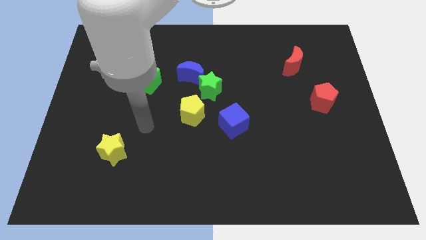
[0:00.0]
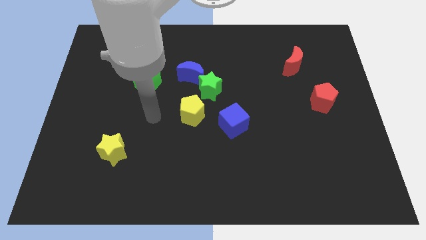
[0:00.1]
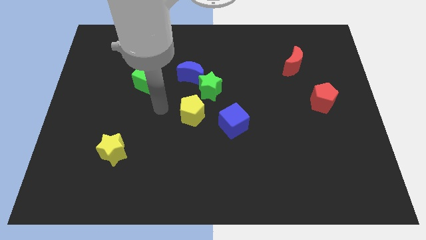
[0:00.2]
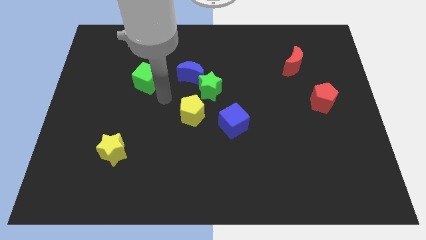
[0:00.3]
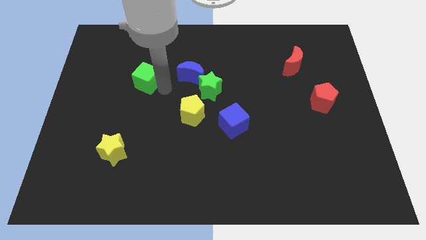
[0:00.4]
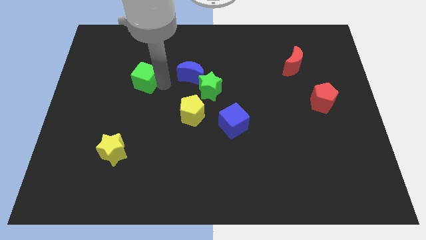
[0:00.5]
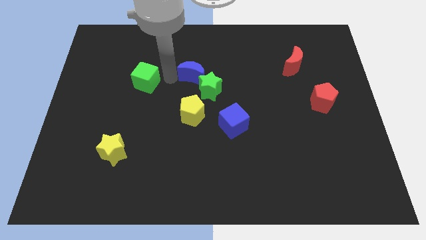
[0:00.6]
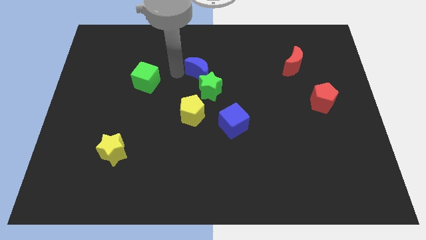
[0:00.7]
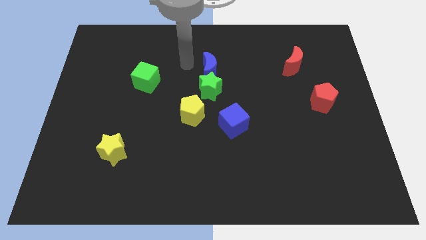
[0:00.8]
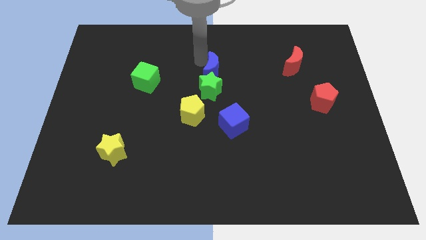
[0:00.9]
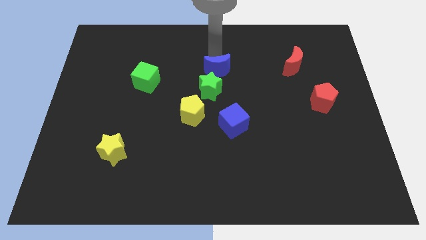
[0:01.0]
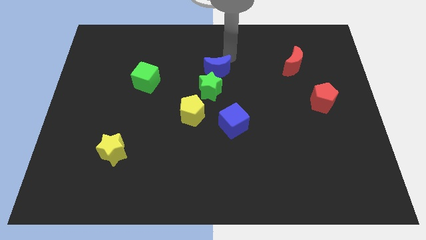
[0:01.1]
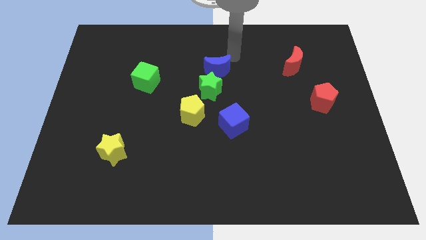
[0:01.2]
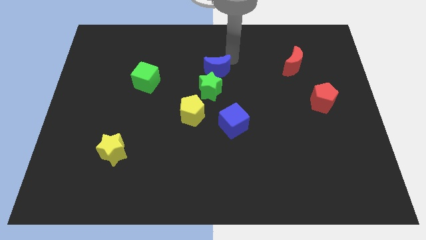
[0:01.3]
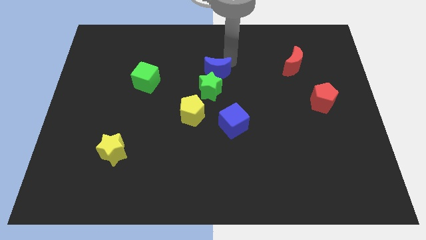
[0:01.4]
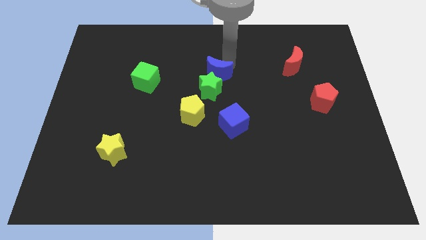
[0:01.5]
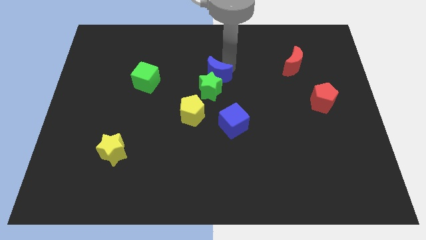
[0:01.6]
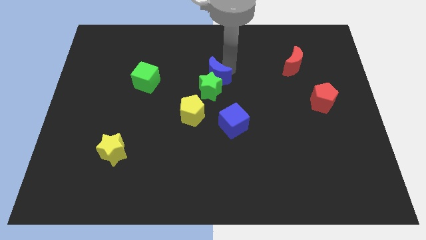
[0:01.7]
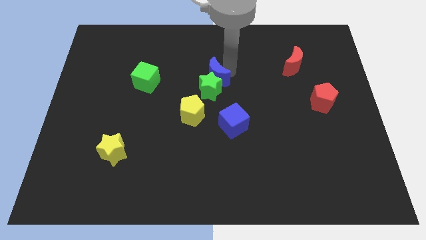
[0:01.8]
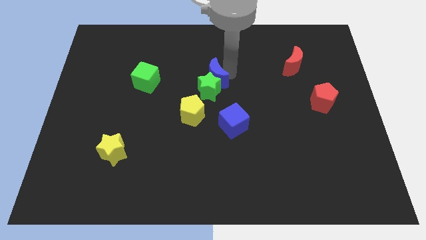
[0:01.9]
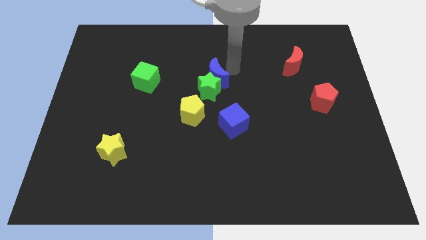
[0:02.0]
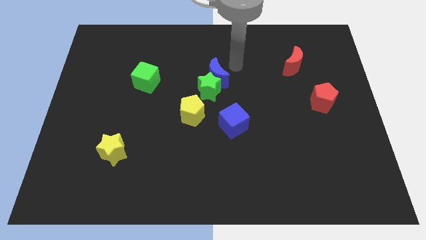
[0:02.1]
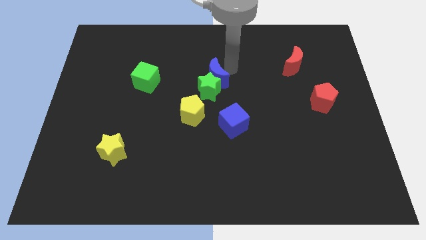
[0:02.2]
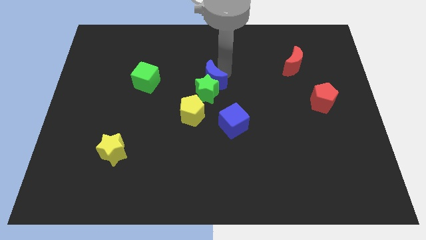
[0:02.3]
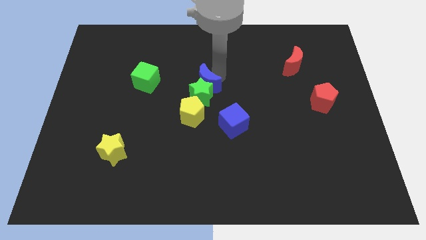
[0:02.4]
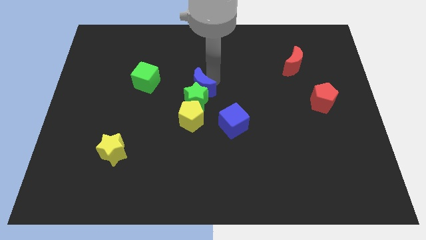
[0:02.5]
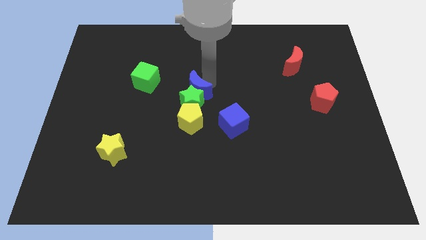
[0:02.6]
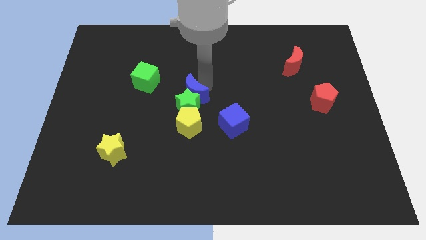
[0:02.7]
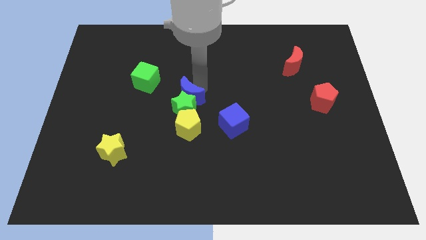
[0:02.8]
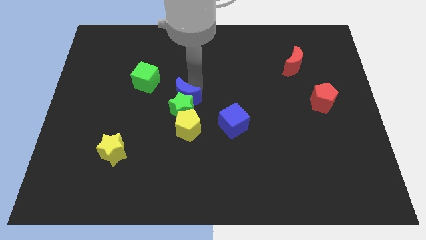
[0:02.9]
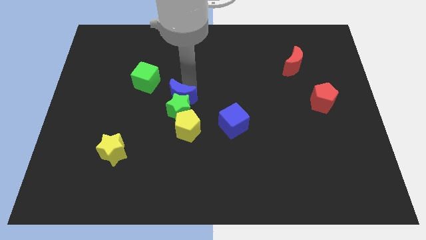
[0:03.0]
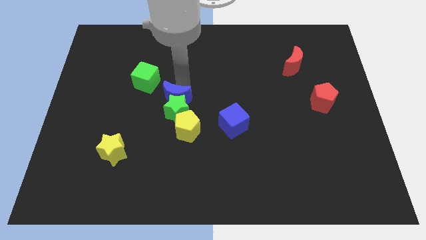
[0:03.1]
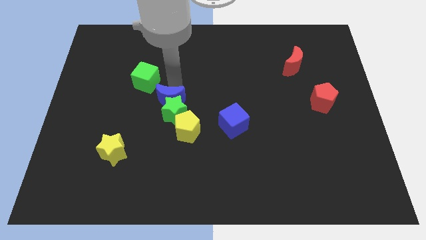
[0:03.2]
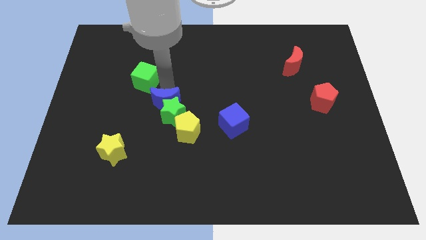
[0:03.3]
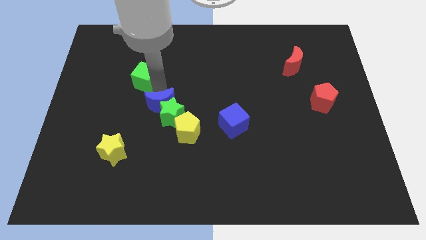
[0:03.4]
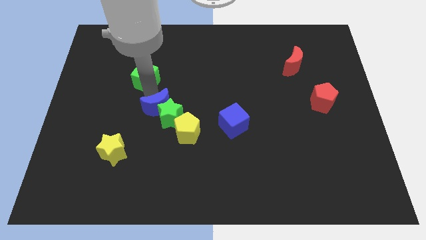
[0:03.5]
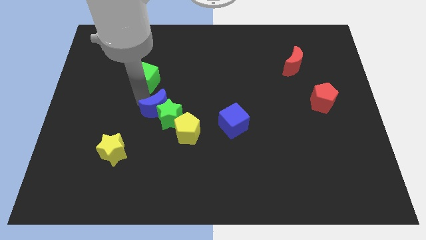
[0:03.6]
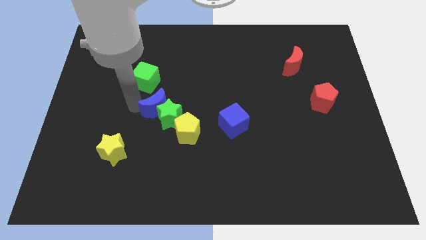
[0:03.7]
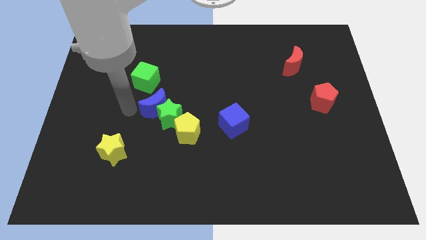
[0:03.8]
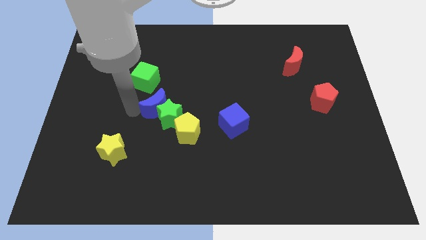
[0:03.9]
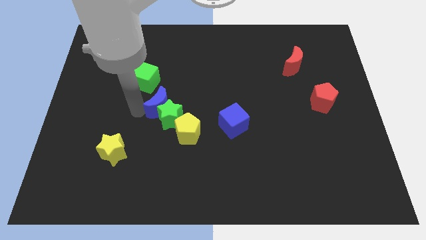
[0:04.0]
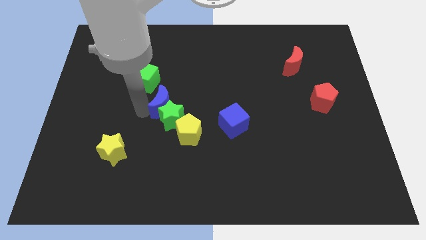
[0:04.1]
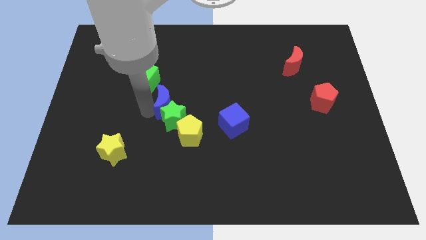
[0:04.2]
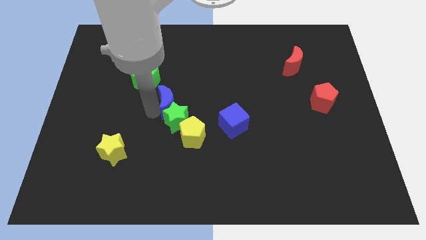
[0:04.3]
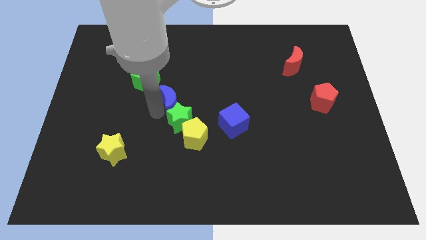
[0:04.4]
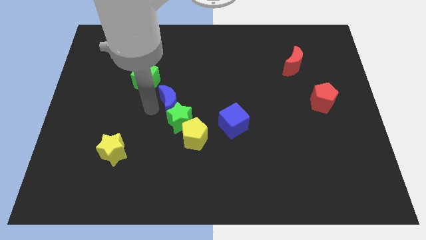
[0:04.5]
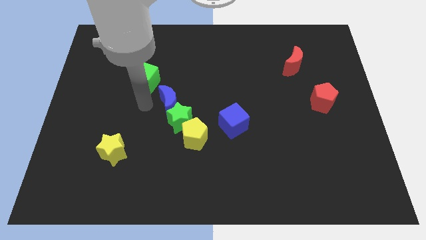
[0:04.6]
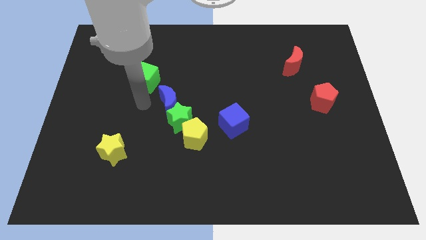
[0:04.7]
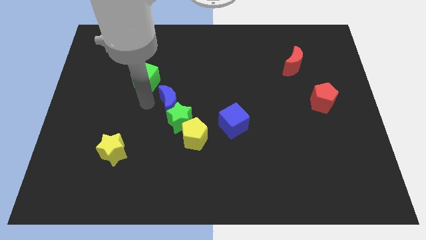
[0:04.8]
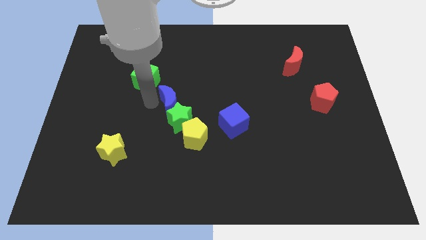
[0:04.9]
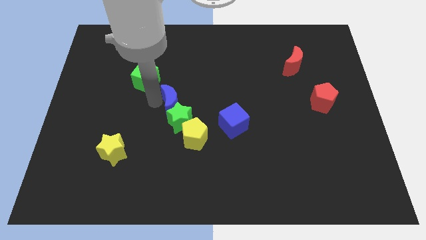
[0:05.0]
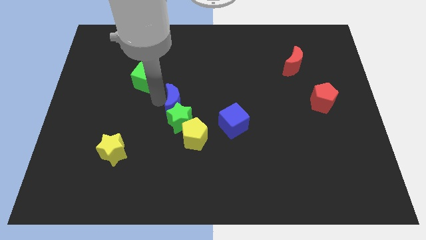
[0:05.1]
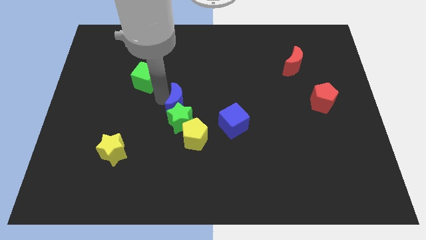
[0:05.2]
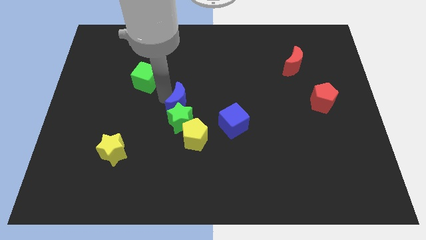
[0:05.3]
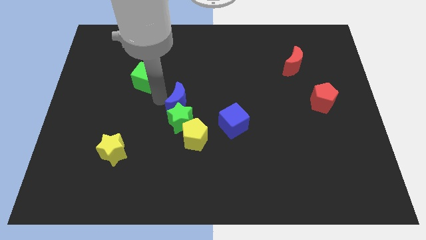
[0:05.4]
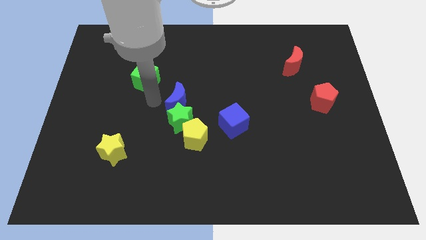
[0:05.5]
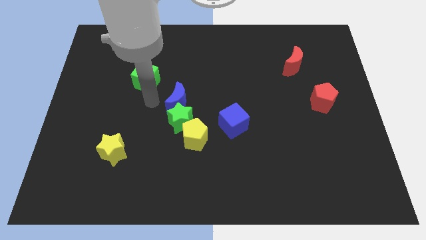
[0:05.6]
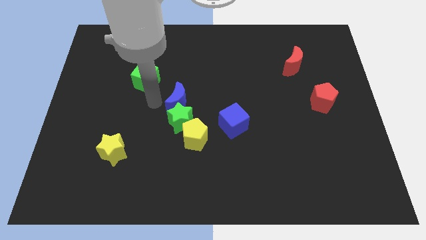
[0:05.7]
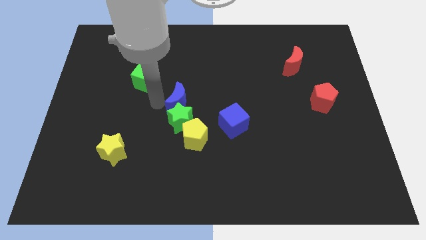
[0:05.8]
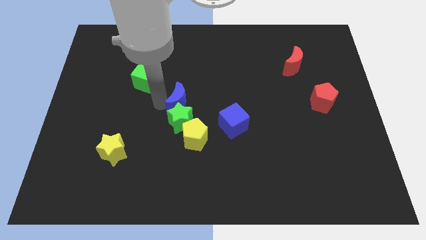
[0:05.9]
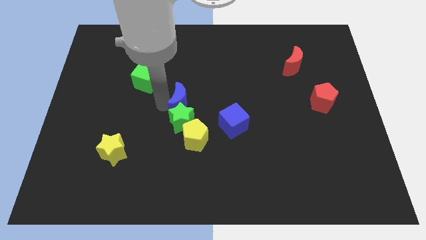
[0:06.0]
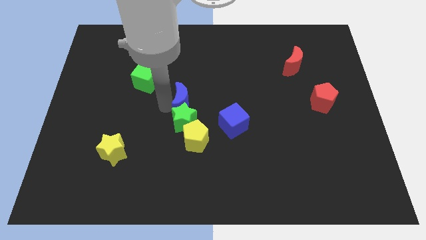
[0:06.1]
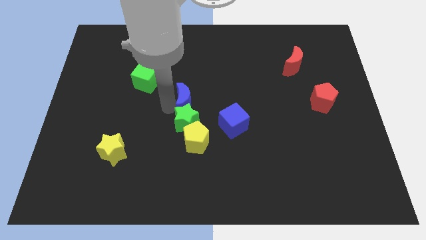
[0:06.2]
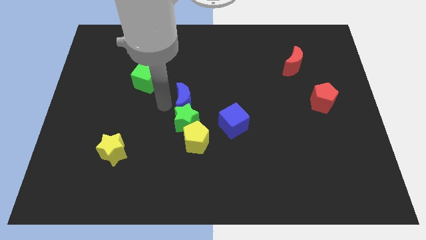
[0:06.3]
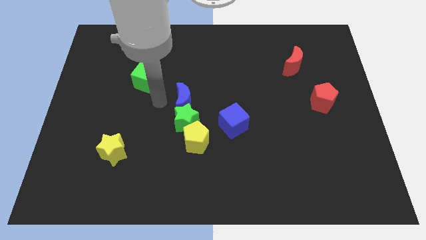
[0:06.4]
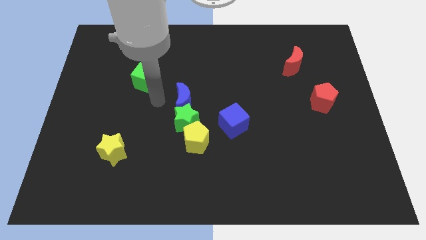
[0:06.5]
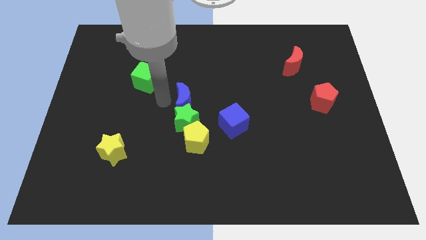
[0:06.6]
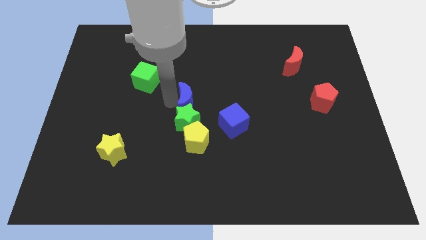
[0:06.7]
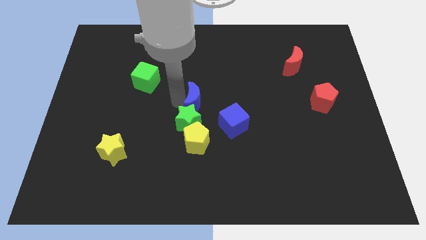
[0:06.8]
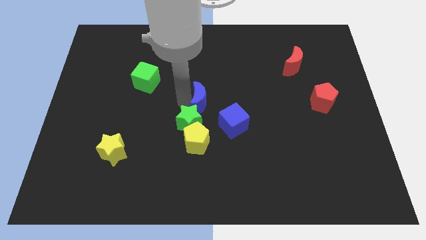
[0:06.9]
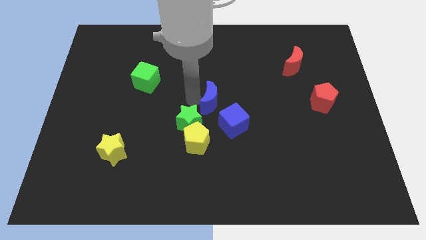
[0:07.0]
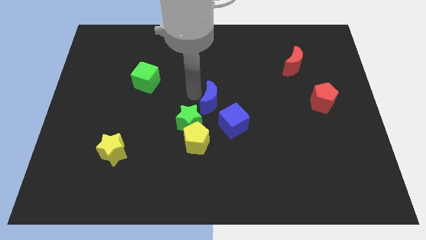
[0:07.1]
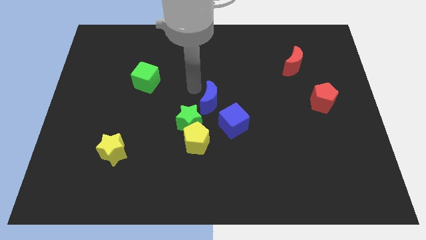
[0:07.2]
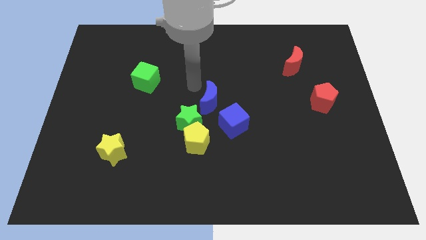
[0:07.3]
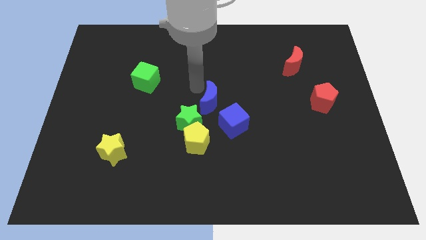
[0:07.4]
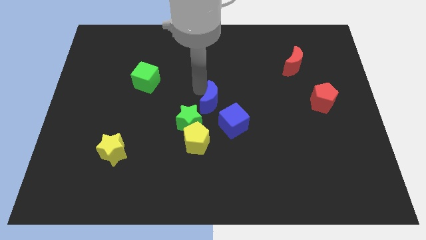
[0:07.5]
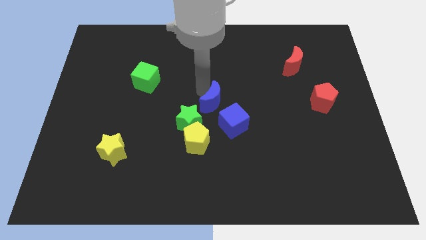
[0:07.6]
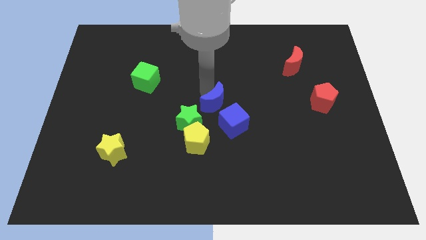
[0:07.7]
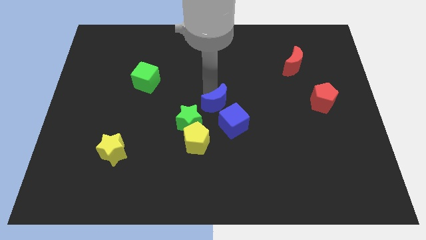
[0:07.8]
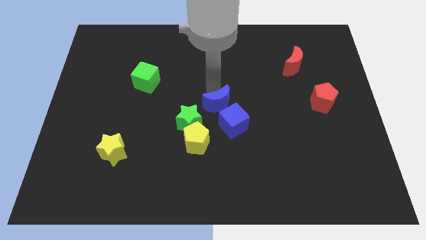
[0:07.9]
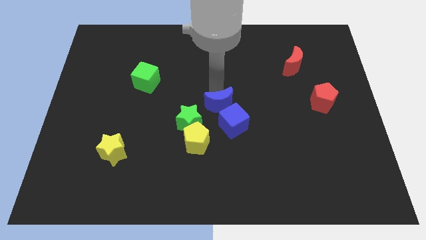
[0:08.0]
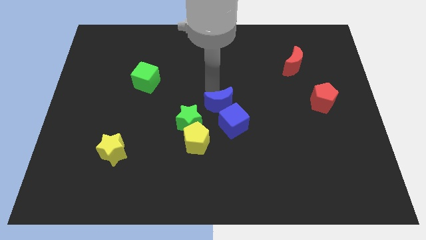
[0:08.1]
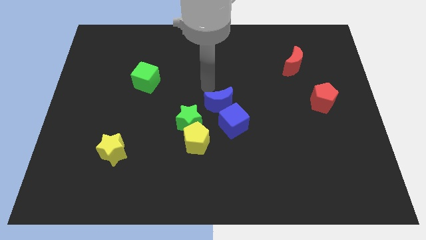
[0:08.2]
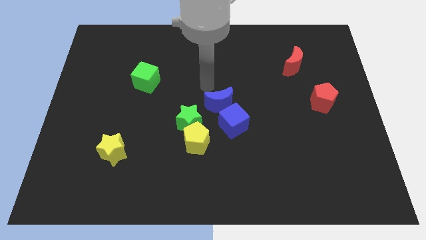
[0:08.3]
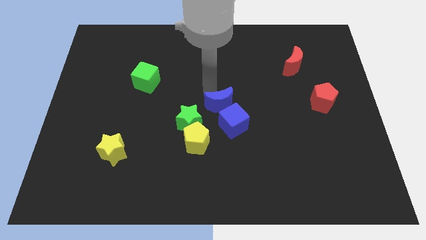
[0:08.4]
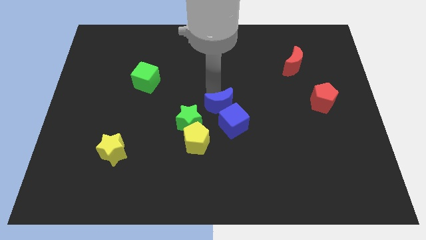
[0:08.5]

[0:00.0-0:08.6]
move the blue moon towards the blue cube
